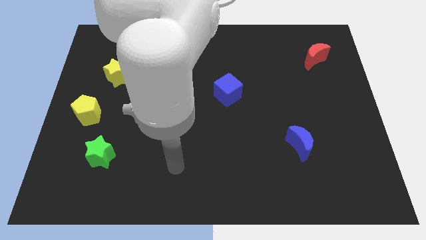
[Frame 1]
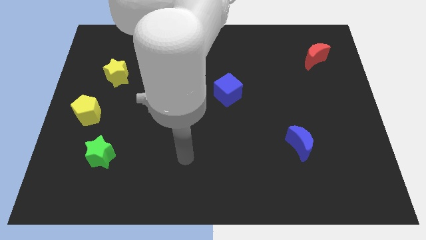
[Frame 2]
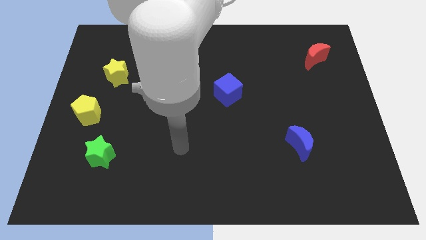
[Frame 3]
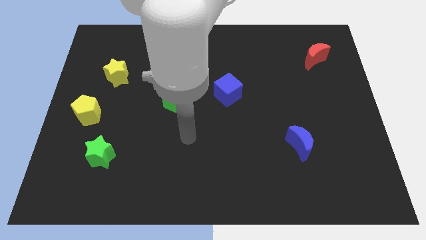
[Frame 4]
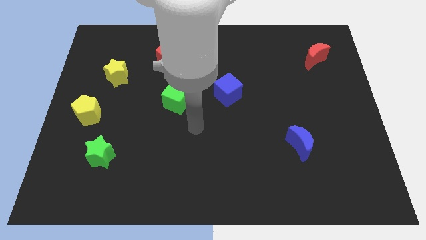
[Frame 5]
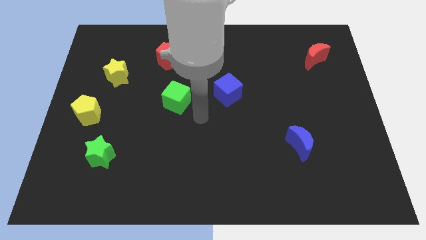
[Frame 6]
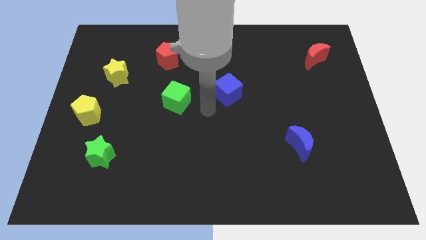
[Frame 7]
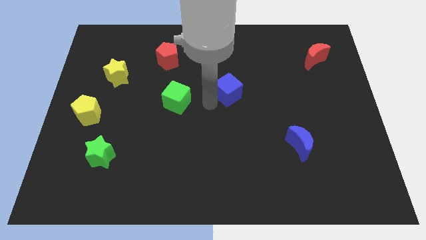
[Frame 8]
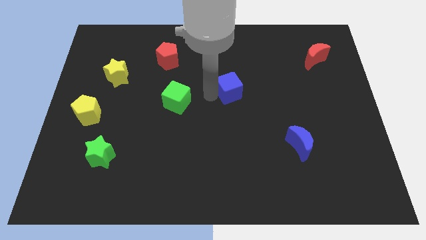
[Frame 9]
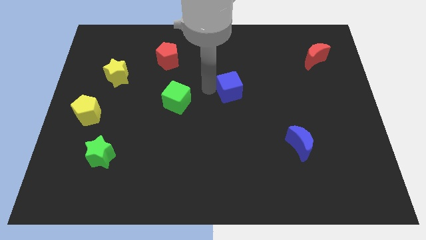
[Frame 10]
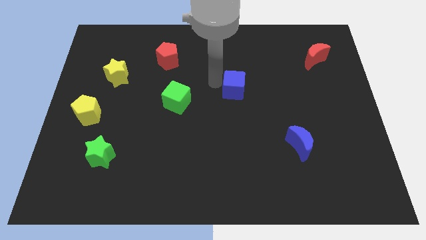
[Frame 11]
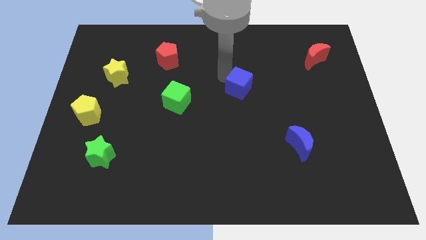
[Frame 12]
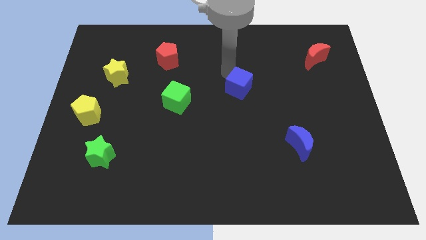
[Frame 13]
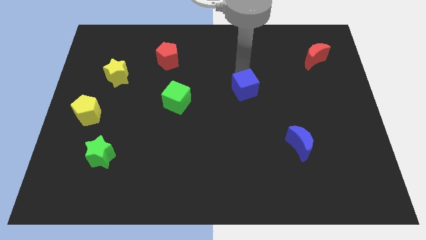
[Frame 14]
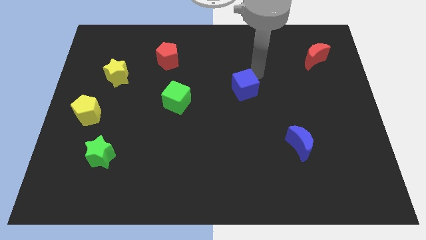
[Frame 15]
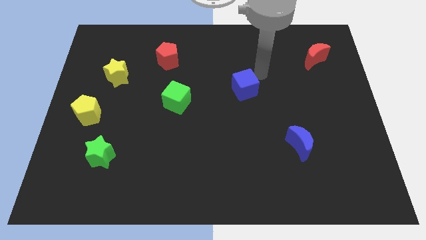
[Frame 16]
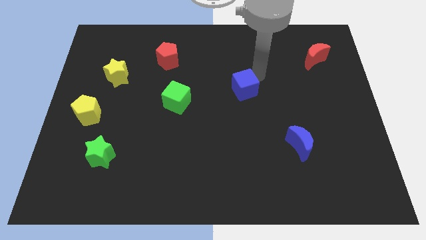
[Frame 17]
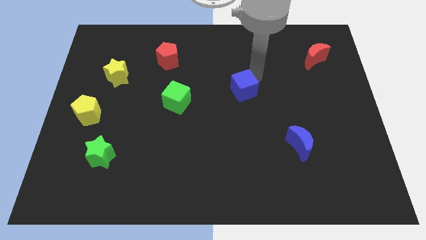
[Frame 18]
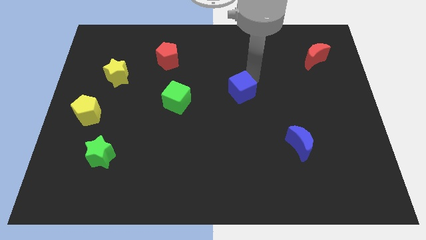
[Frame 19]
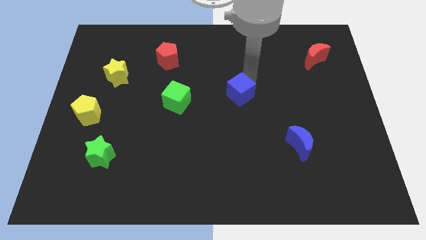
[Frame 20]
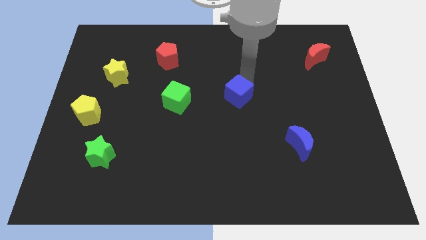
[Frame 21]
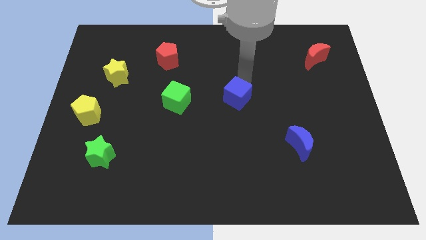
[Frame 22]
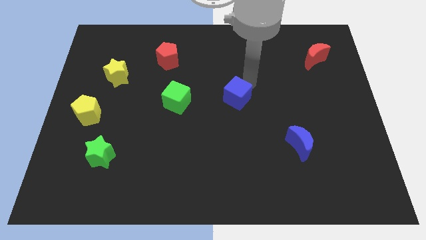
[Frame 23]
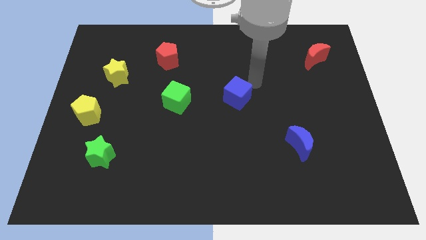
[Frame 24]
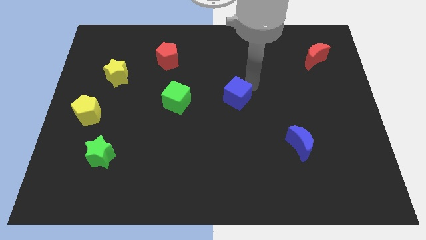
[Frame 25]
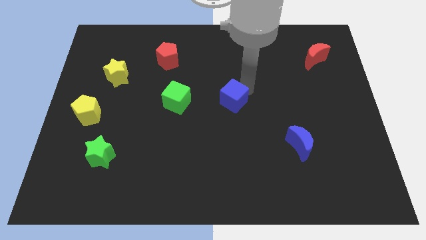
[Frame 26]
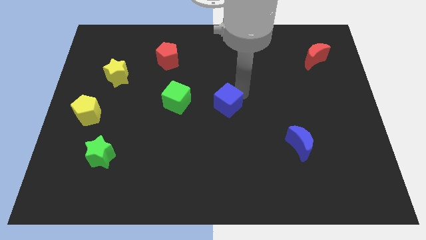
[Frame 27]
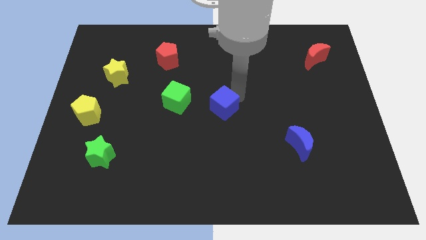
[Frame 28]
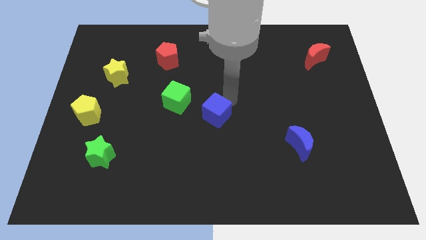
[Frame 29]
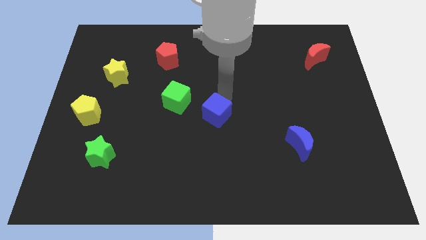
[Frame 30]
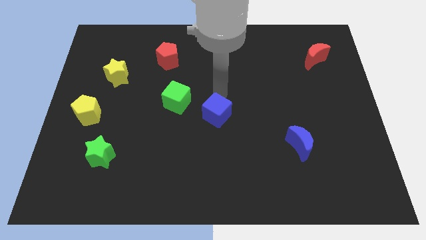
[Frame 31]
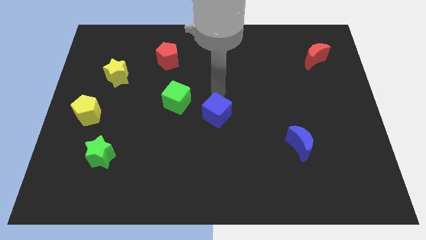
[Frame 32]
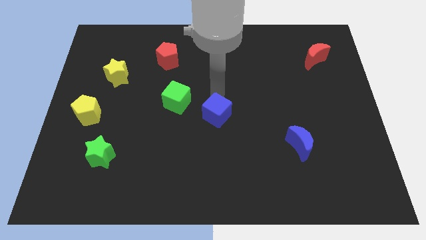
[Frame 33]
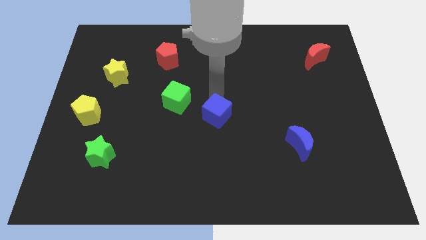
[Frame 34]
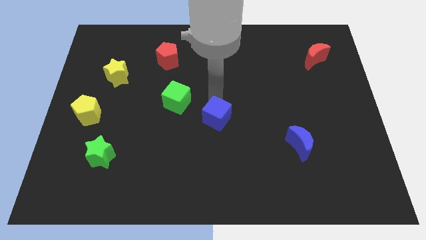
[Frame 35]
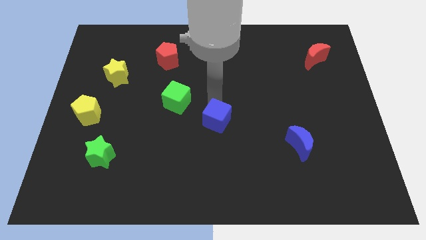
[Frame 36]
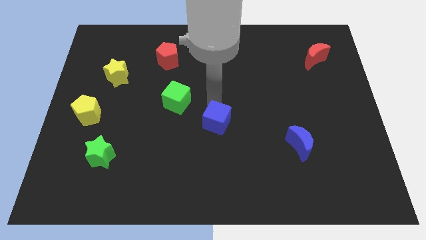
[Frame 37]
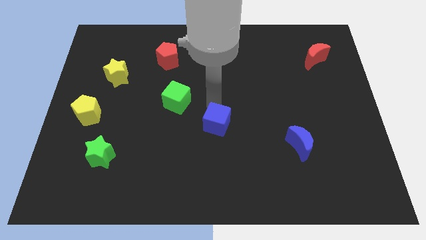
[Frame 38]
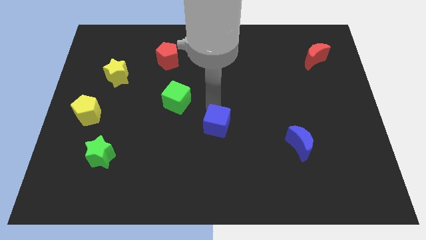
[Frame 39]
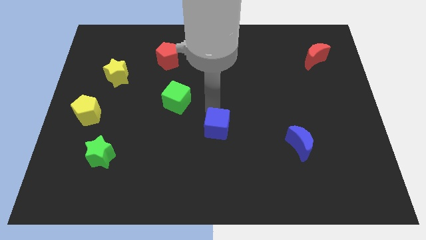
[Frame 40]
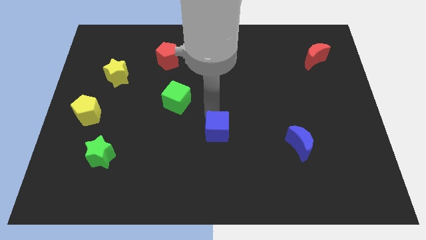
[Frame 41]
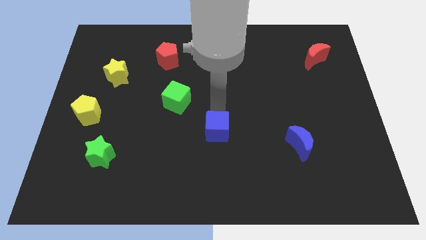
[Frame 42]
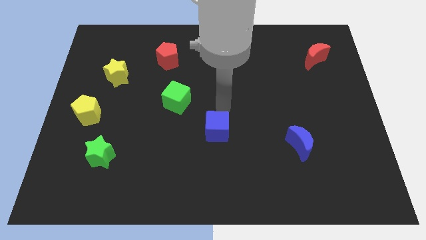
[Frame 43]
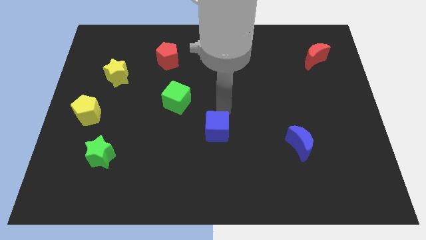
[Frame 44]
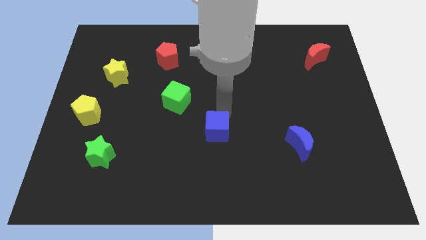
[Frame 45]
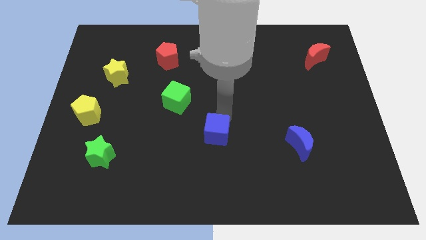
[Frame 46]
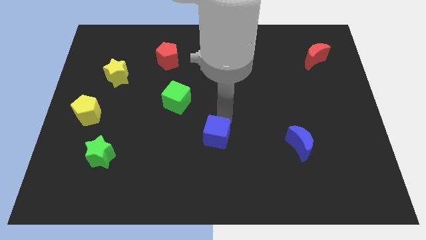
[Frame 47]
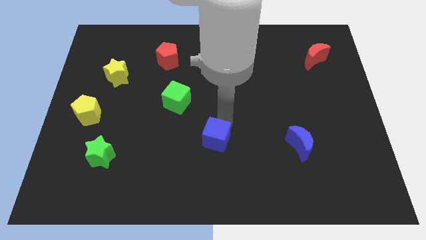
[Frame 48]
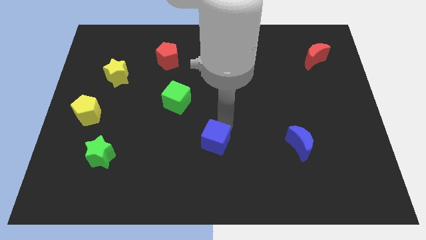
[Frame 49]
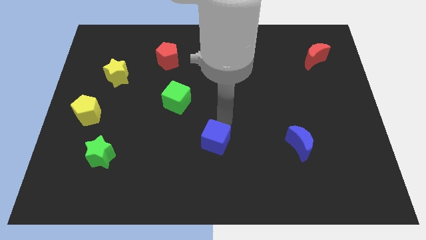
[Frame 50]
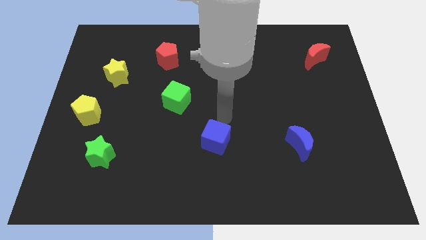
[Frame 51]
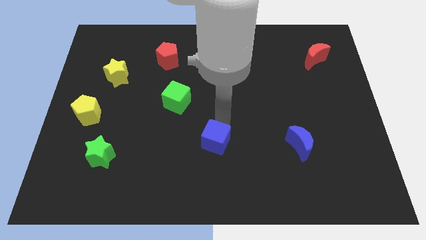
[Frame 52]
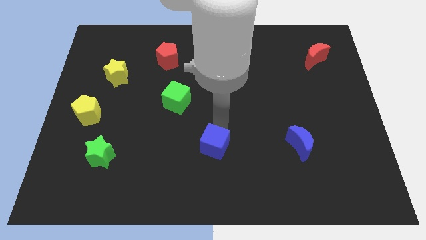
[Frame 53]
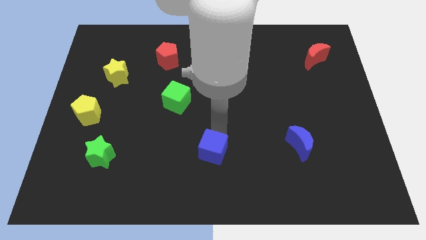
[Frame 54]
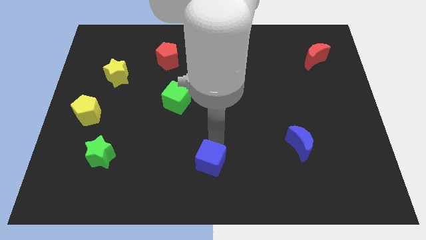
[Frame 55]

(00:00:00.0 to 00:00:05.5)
slide the blue cube to the bottom side

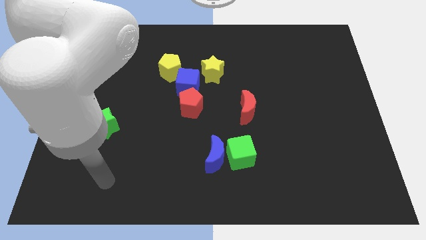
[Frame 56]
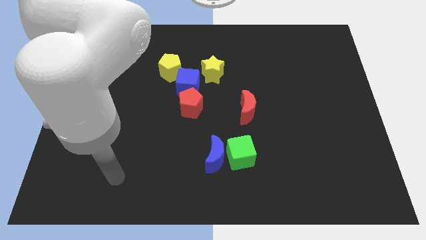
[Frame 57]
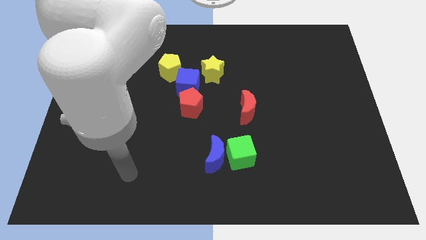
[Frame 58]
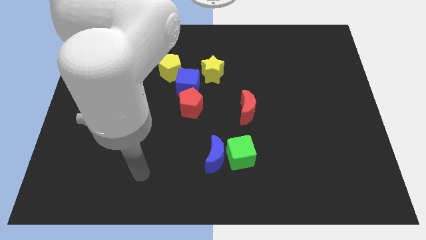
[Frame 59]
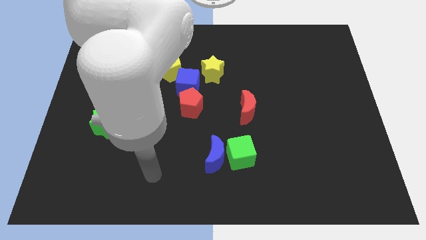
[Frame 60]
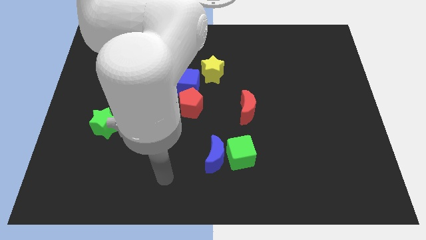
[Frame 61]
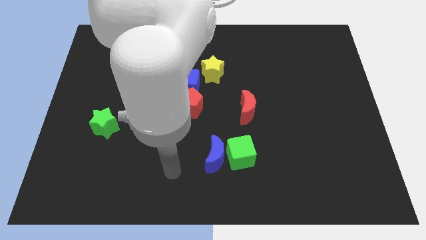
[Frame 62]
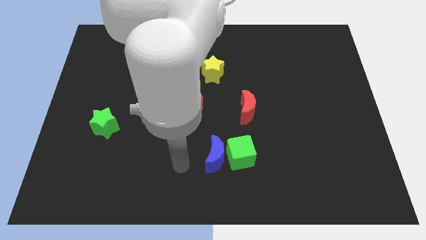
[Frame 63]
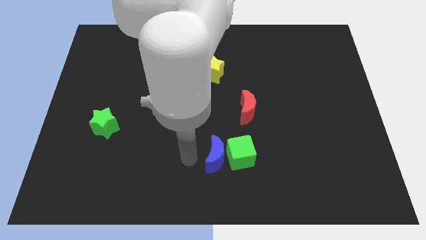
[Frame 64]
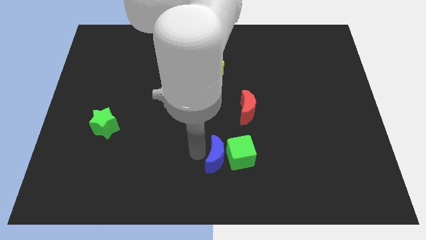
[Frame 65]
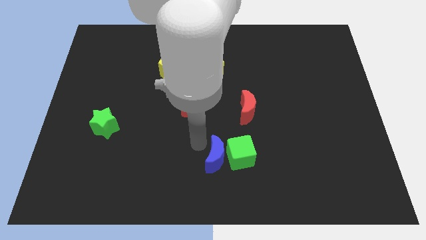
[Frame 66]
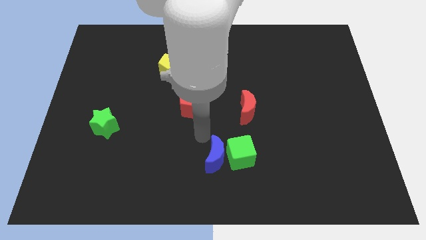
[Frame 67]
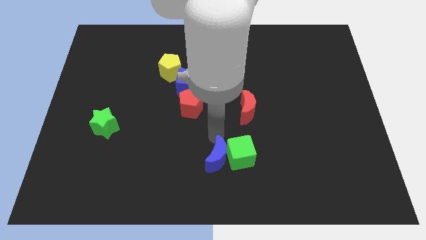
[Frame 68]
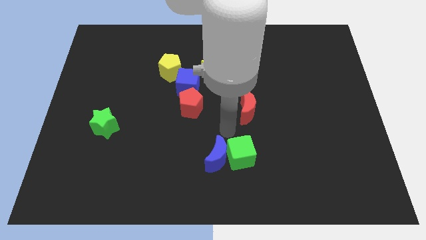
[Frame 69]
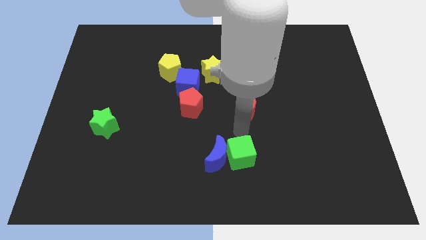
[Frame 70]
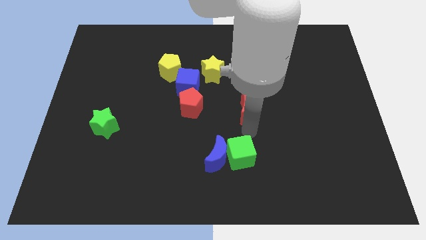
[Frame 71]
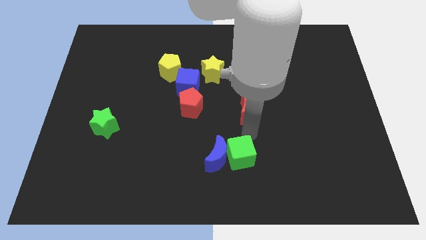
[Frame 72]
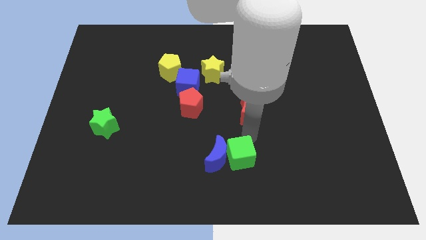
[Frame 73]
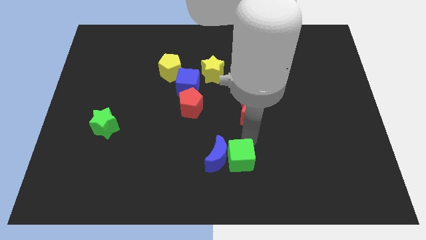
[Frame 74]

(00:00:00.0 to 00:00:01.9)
push the green cube to the bottom
